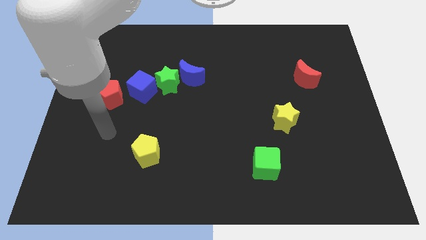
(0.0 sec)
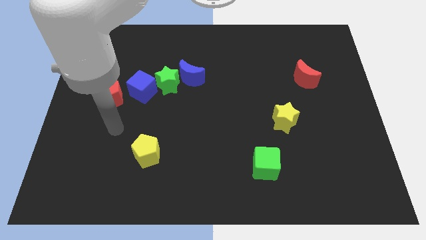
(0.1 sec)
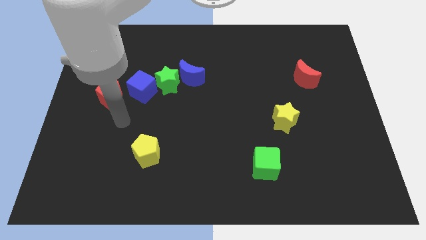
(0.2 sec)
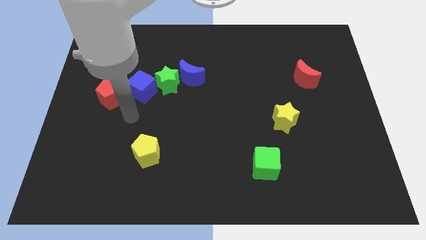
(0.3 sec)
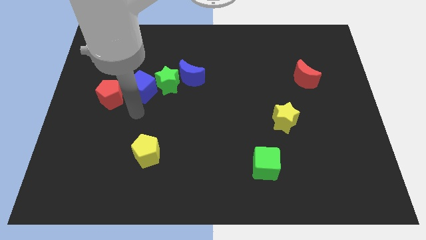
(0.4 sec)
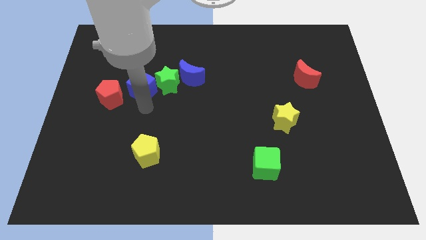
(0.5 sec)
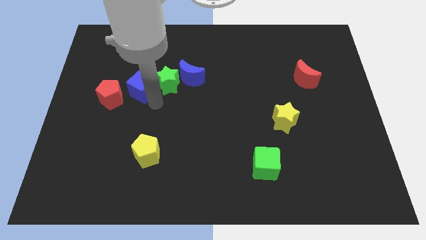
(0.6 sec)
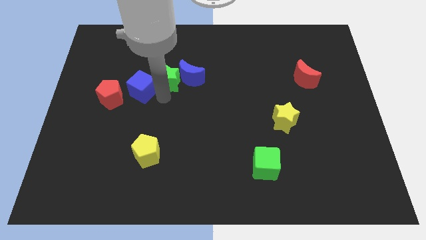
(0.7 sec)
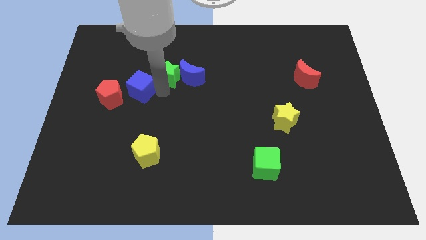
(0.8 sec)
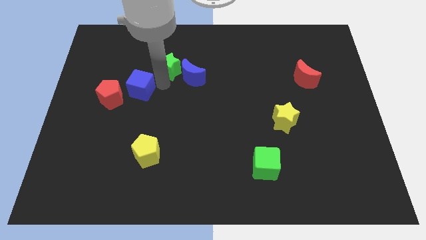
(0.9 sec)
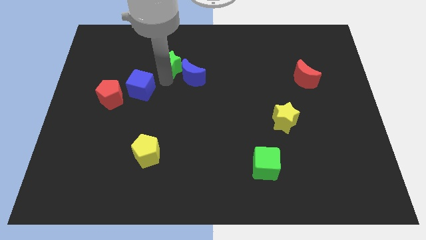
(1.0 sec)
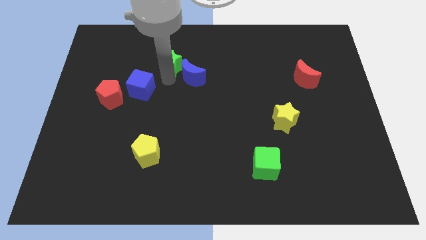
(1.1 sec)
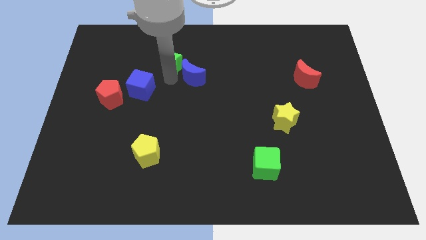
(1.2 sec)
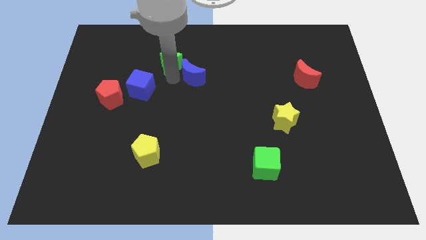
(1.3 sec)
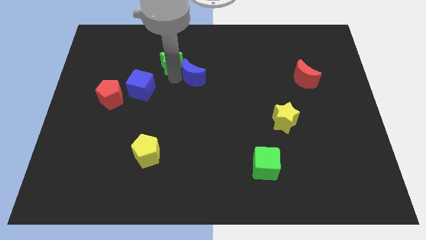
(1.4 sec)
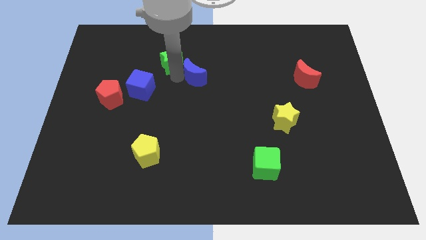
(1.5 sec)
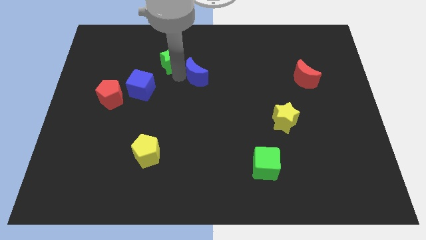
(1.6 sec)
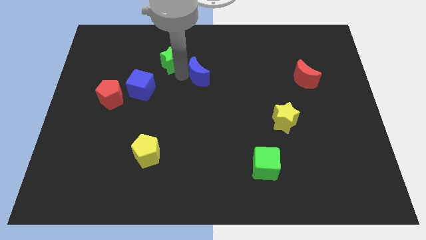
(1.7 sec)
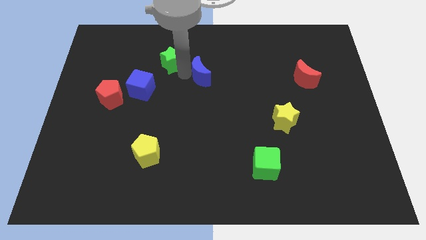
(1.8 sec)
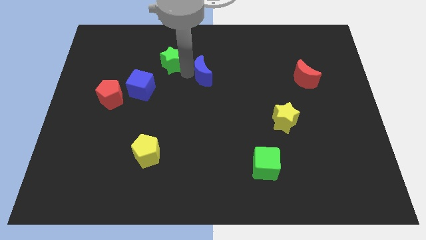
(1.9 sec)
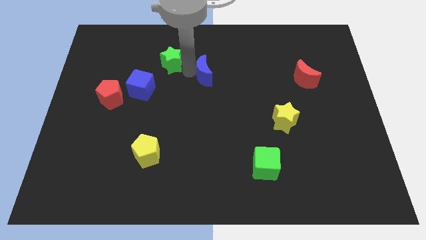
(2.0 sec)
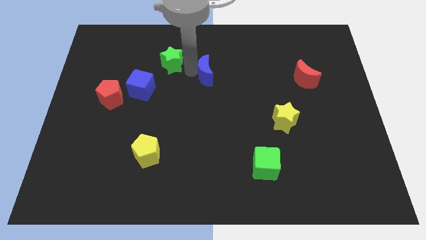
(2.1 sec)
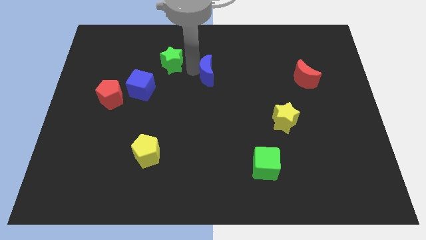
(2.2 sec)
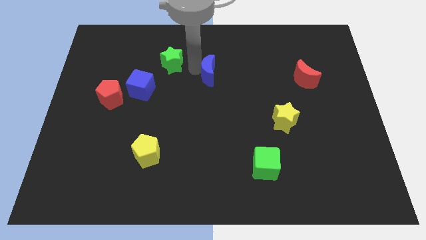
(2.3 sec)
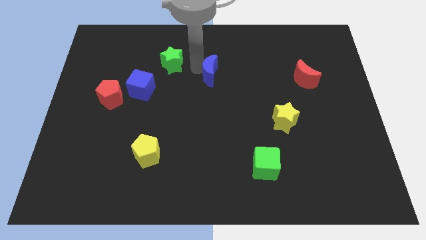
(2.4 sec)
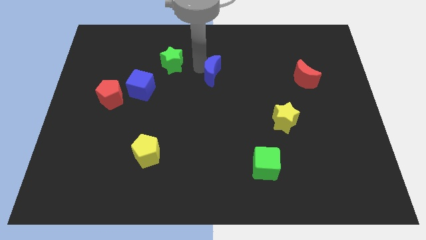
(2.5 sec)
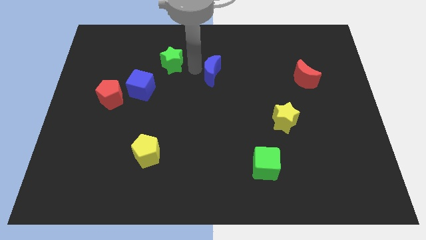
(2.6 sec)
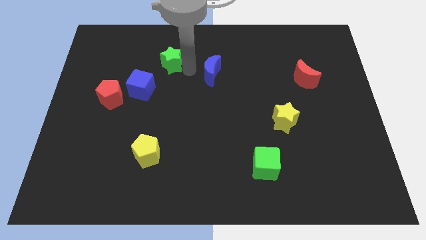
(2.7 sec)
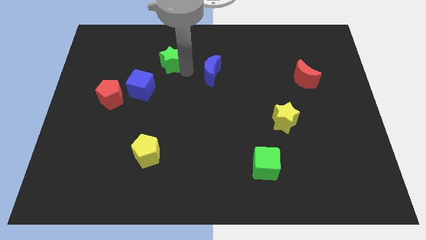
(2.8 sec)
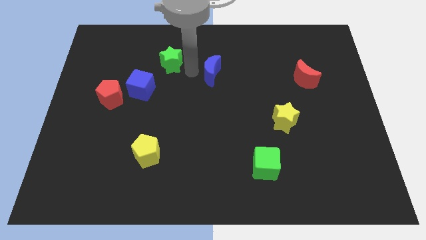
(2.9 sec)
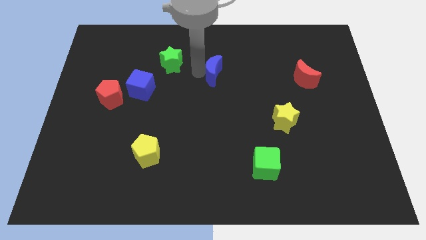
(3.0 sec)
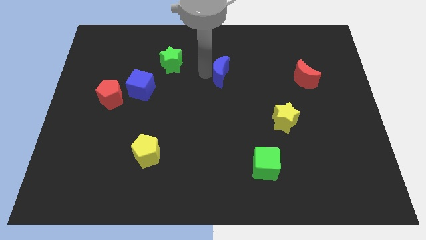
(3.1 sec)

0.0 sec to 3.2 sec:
slightly move the blue moon to the right

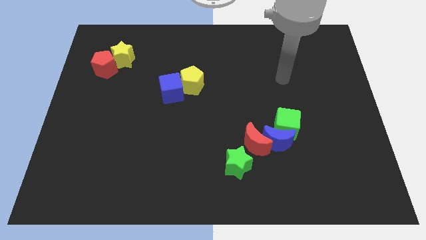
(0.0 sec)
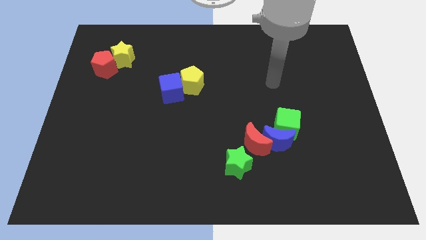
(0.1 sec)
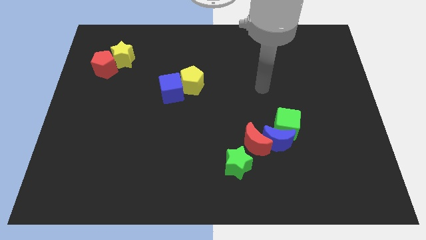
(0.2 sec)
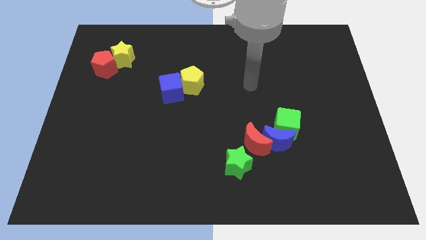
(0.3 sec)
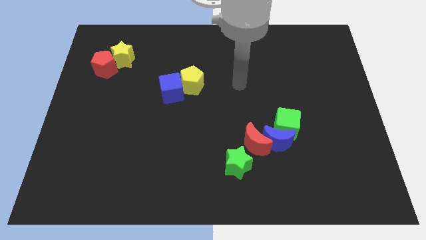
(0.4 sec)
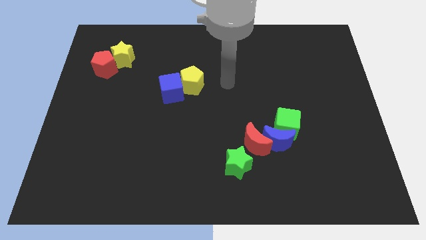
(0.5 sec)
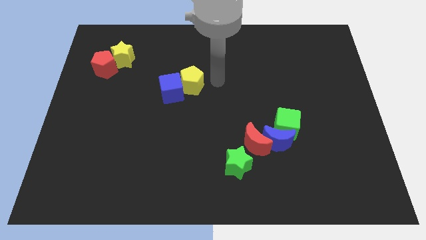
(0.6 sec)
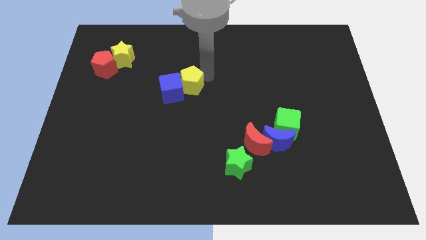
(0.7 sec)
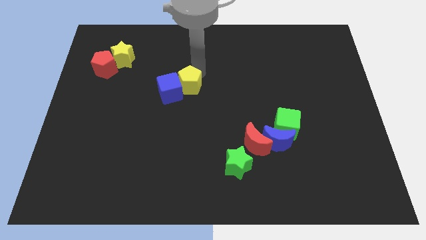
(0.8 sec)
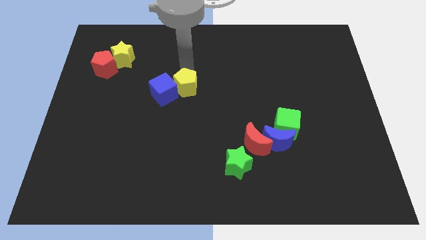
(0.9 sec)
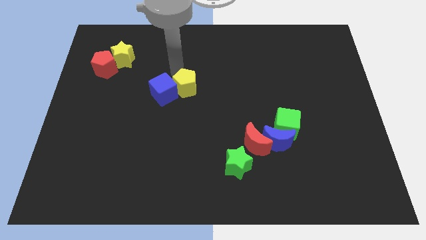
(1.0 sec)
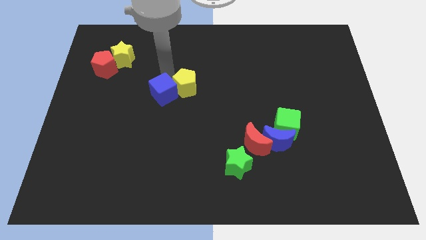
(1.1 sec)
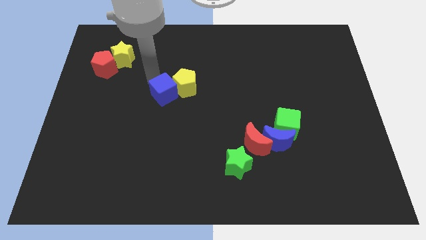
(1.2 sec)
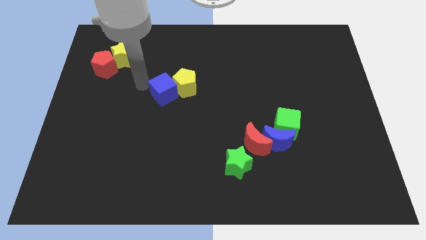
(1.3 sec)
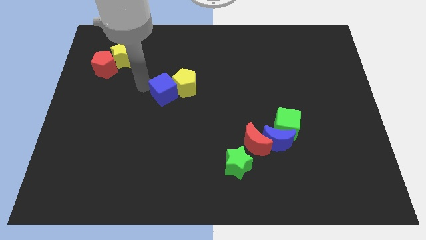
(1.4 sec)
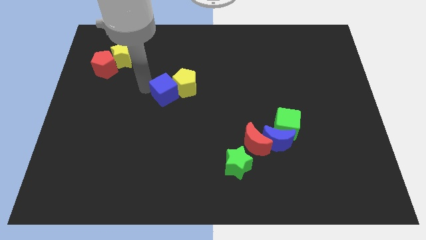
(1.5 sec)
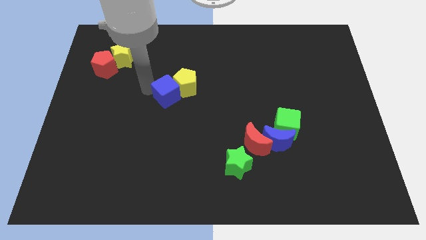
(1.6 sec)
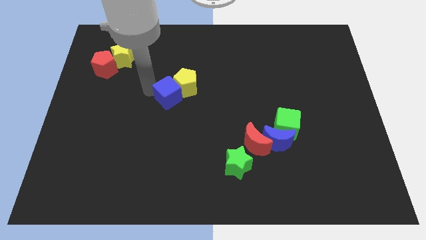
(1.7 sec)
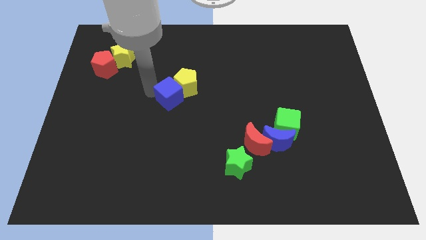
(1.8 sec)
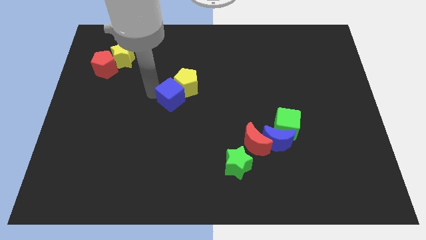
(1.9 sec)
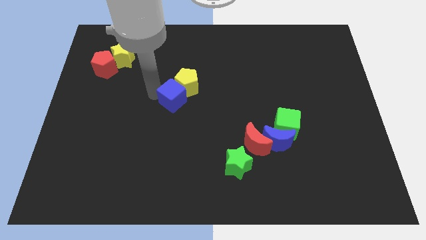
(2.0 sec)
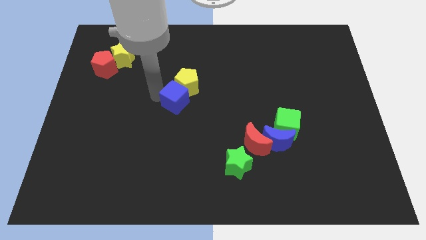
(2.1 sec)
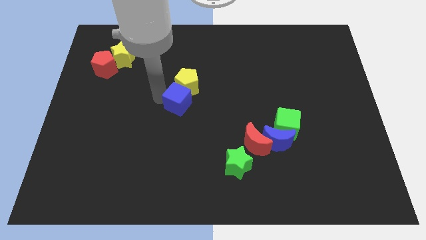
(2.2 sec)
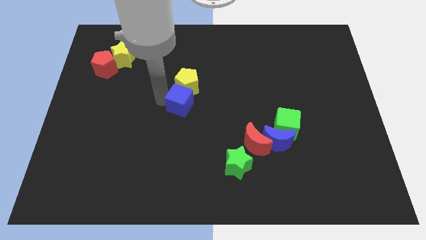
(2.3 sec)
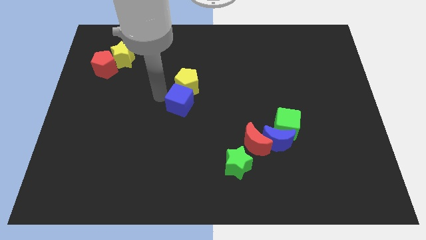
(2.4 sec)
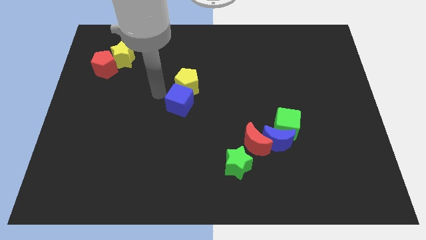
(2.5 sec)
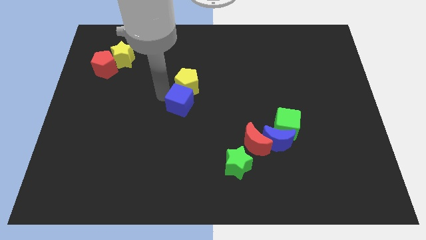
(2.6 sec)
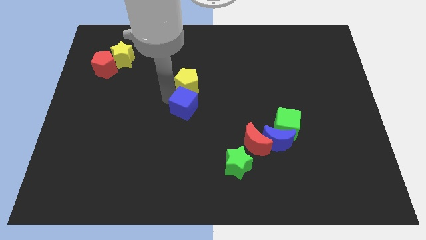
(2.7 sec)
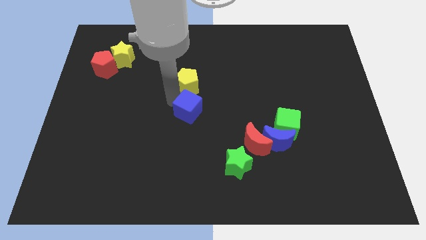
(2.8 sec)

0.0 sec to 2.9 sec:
push the blue cube downwards and then to the right somewhat

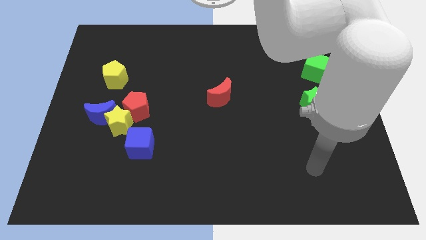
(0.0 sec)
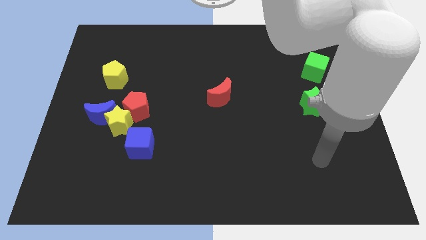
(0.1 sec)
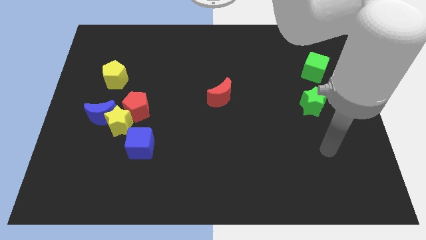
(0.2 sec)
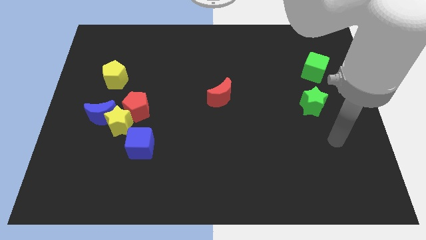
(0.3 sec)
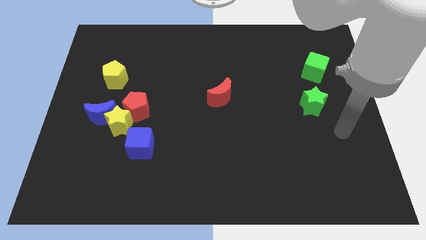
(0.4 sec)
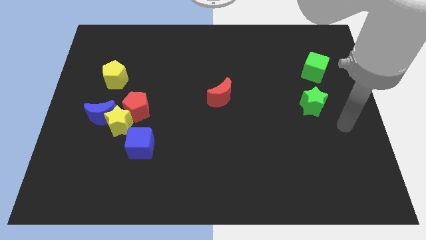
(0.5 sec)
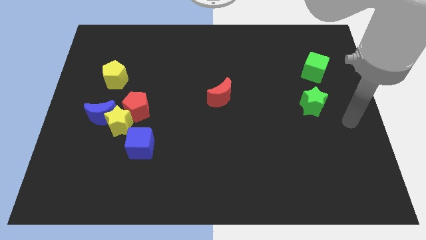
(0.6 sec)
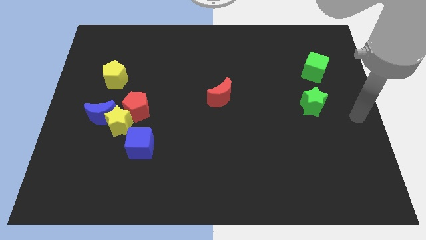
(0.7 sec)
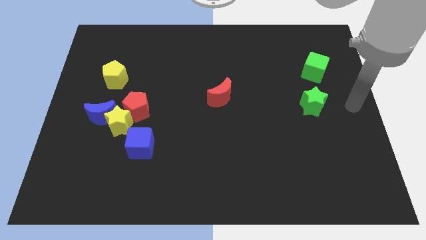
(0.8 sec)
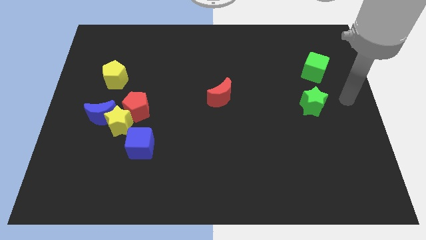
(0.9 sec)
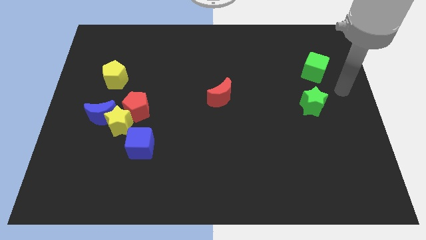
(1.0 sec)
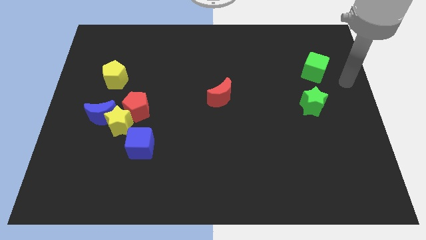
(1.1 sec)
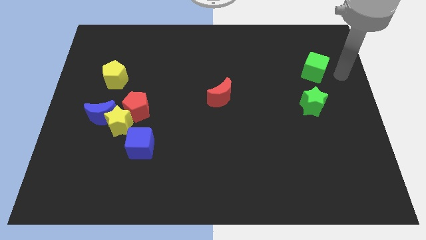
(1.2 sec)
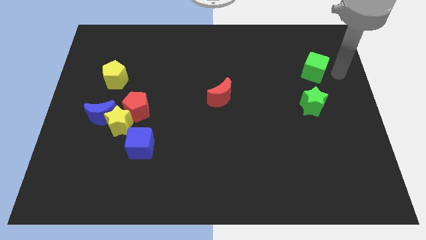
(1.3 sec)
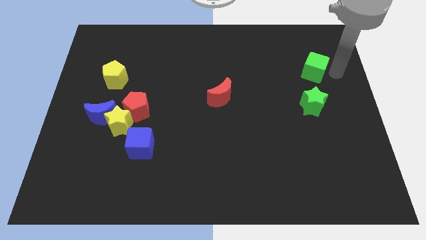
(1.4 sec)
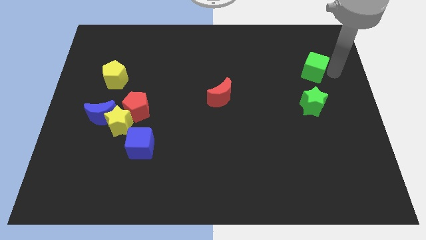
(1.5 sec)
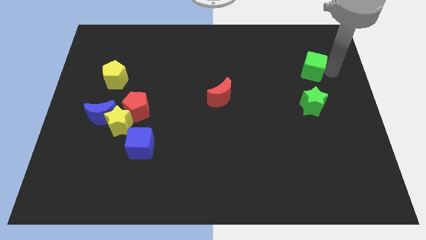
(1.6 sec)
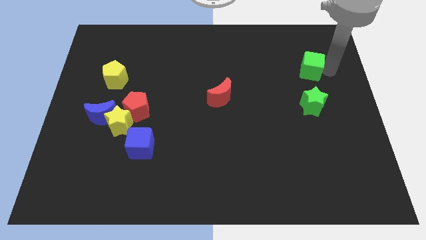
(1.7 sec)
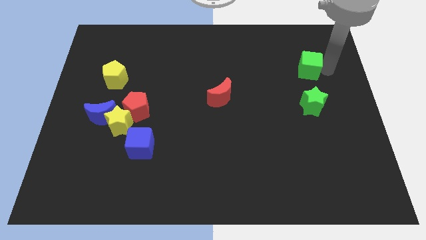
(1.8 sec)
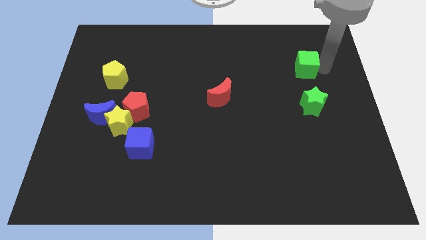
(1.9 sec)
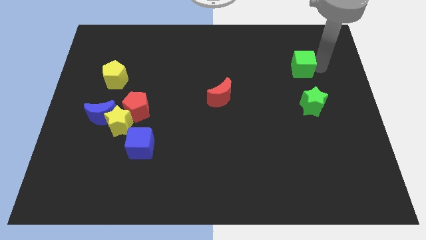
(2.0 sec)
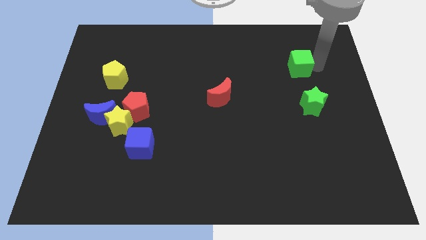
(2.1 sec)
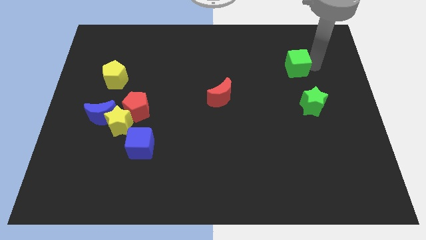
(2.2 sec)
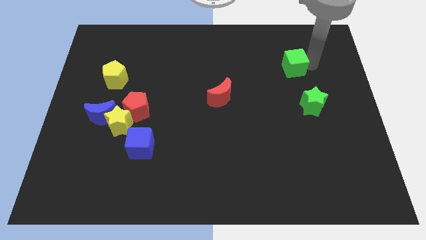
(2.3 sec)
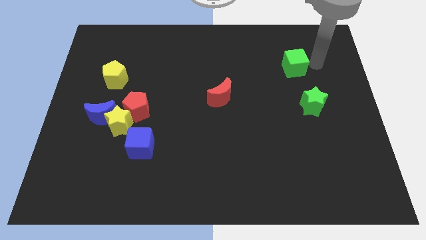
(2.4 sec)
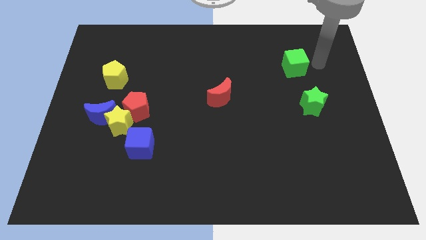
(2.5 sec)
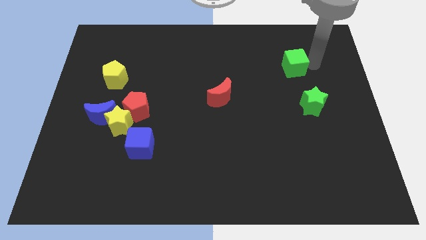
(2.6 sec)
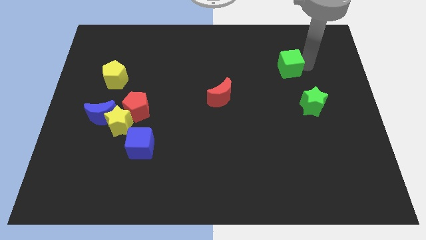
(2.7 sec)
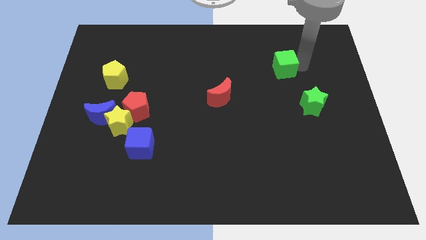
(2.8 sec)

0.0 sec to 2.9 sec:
push the green cube to the left a little
